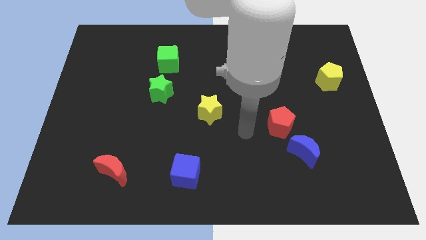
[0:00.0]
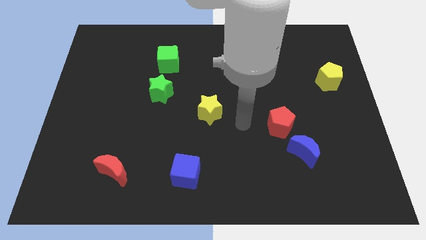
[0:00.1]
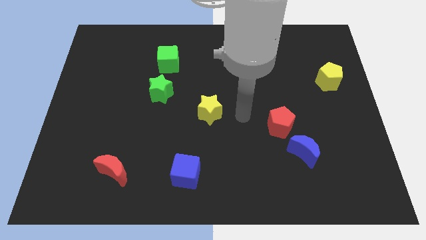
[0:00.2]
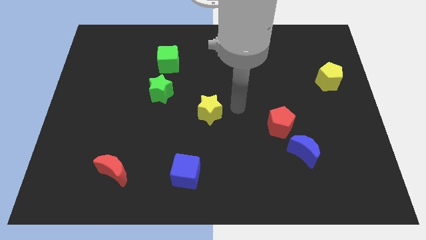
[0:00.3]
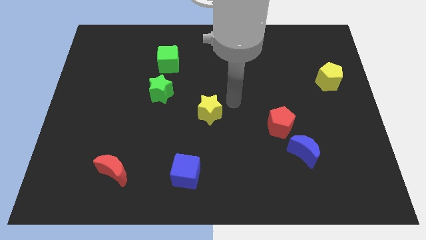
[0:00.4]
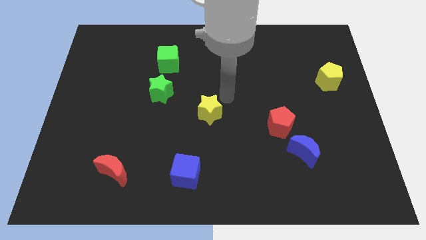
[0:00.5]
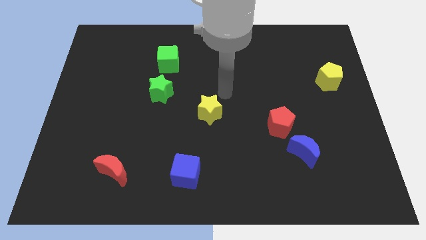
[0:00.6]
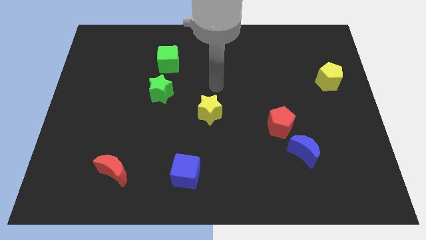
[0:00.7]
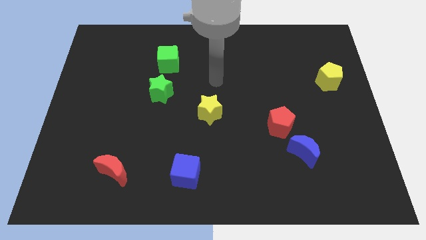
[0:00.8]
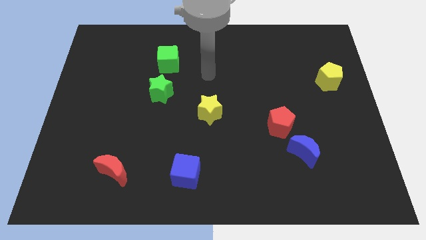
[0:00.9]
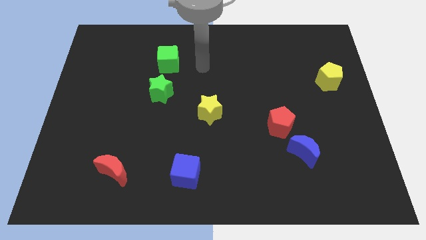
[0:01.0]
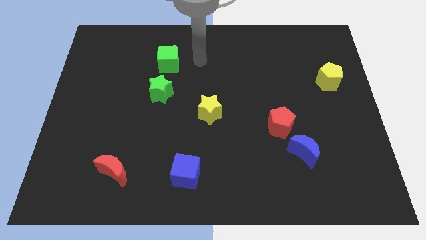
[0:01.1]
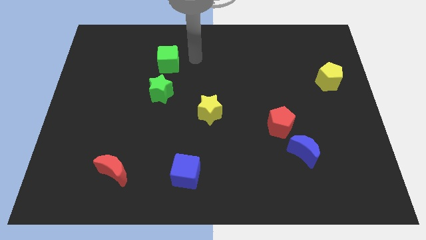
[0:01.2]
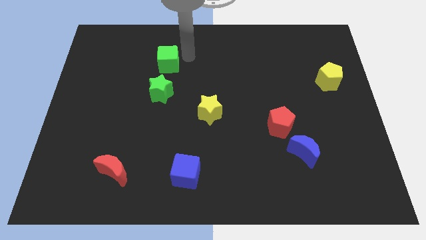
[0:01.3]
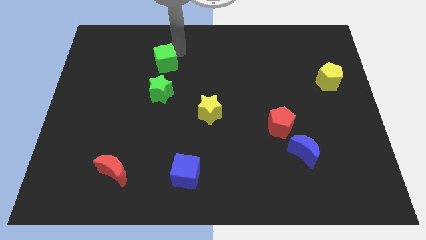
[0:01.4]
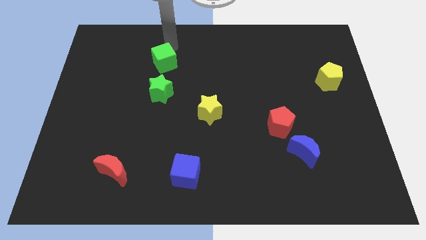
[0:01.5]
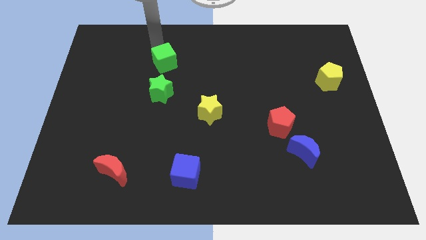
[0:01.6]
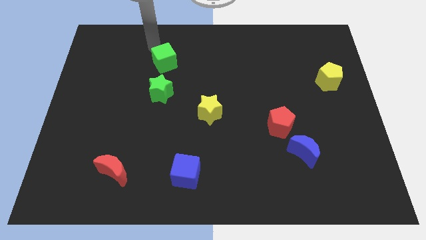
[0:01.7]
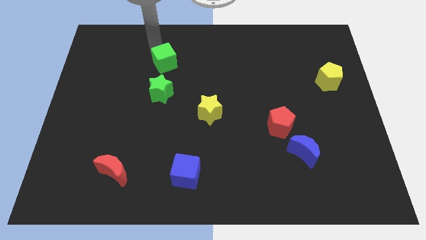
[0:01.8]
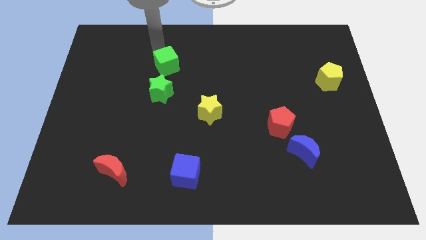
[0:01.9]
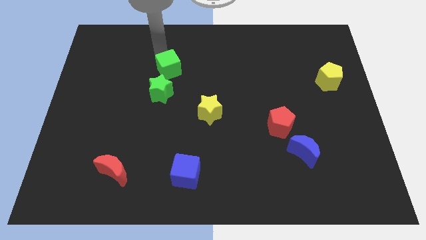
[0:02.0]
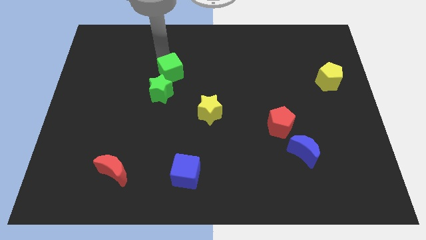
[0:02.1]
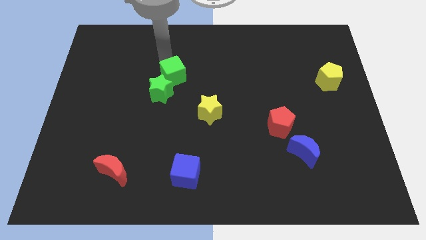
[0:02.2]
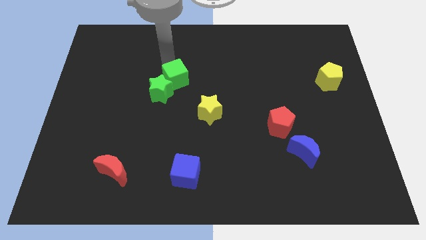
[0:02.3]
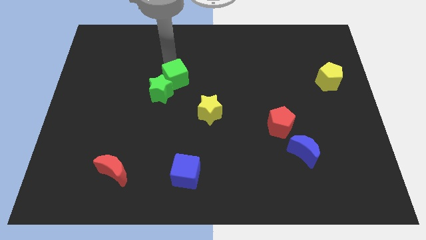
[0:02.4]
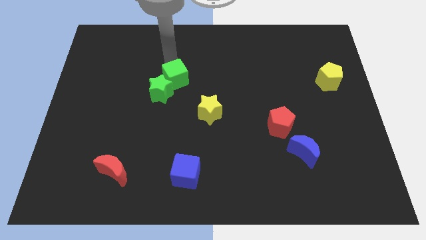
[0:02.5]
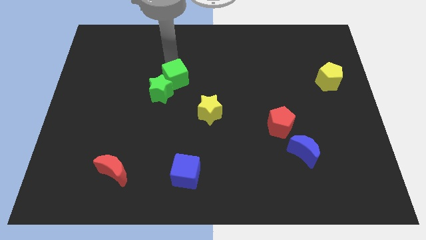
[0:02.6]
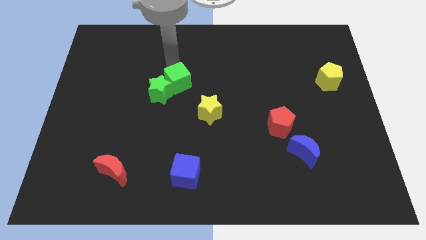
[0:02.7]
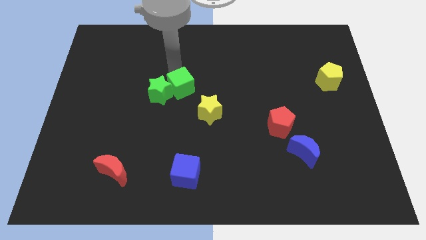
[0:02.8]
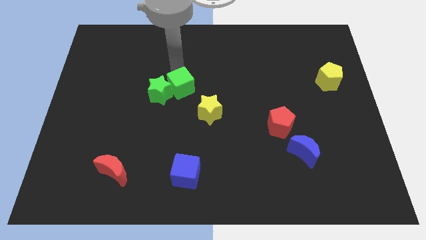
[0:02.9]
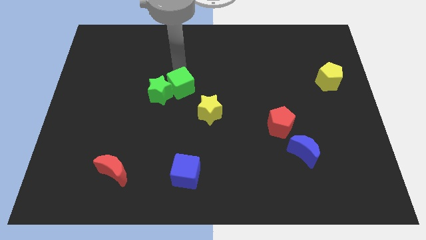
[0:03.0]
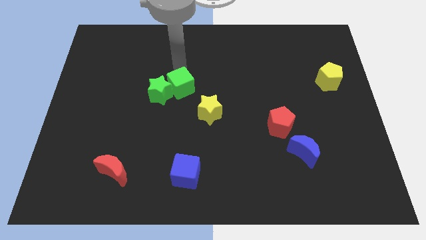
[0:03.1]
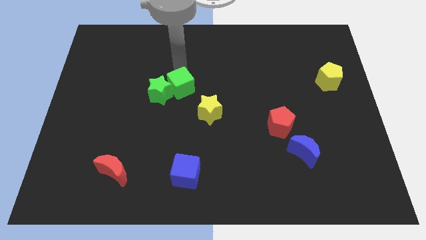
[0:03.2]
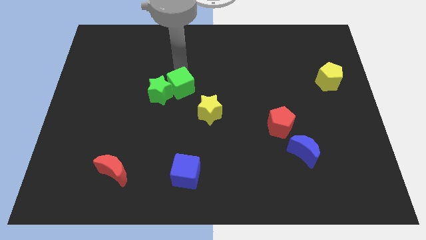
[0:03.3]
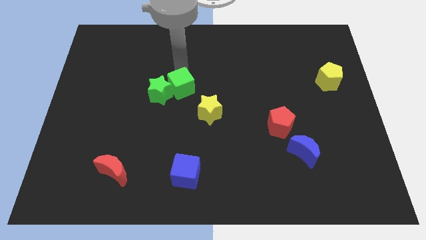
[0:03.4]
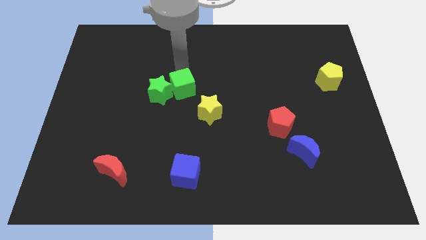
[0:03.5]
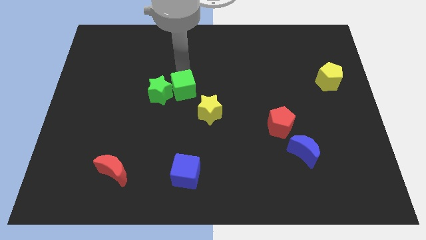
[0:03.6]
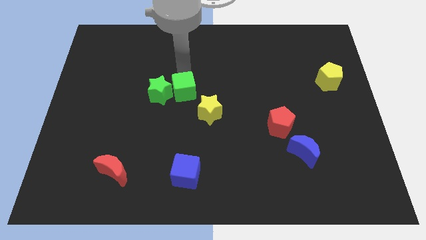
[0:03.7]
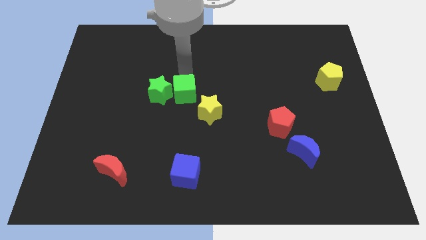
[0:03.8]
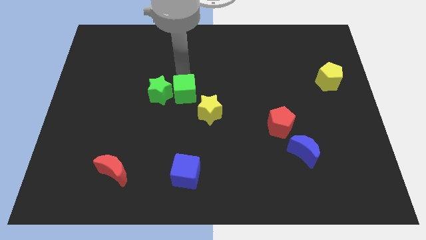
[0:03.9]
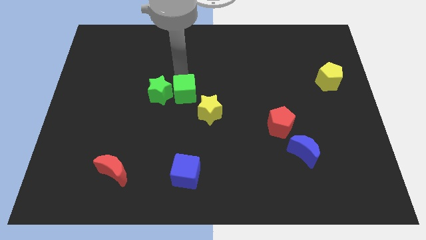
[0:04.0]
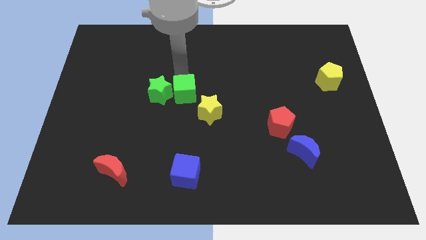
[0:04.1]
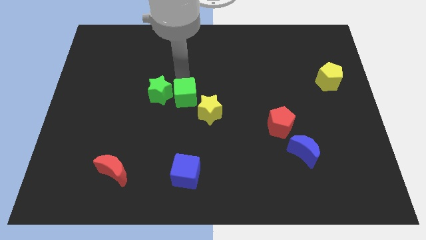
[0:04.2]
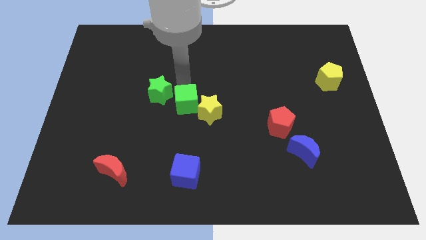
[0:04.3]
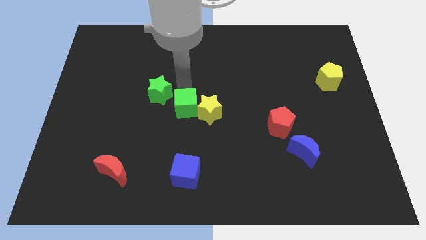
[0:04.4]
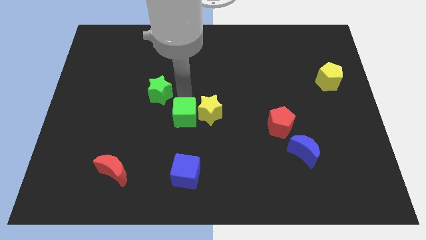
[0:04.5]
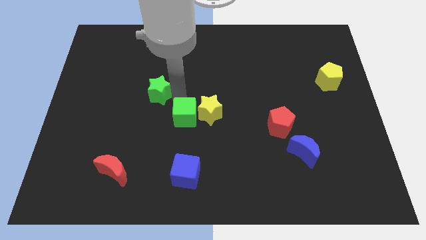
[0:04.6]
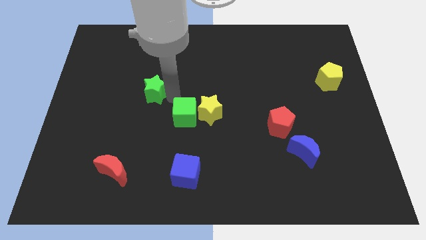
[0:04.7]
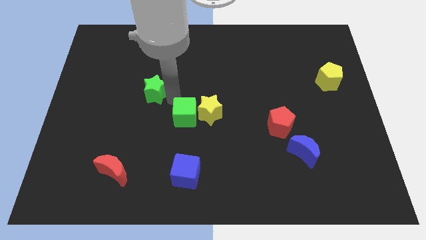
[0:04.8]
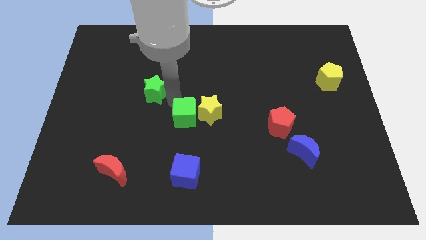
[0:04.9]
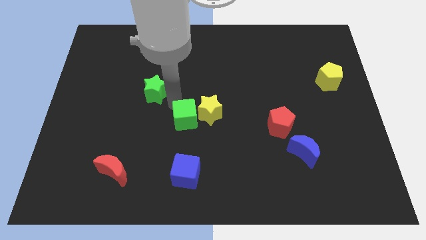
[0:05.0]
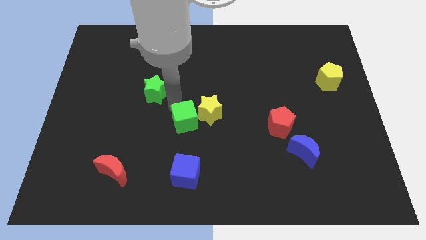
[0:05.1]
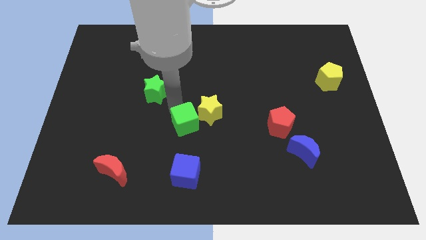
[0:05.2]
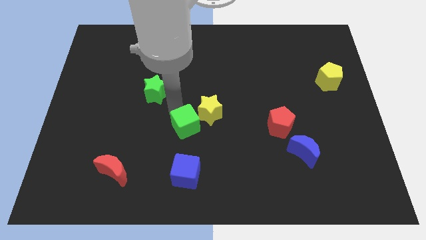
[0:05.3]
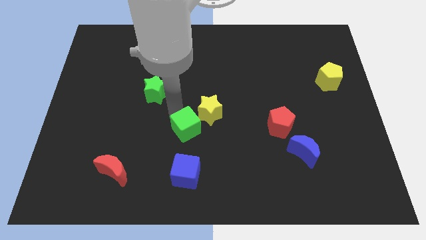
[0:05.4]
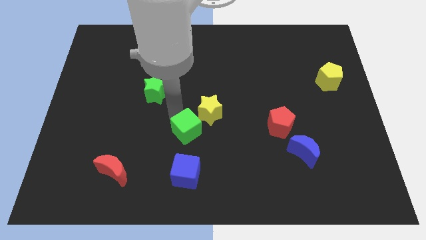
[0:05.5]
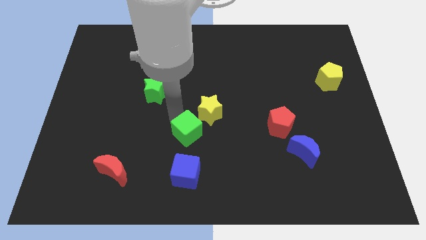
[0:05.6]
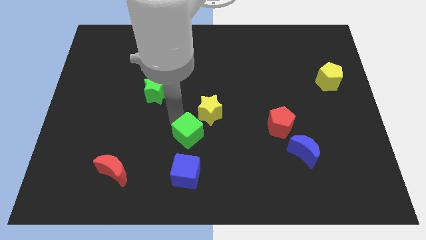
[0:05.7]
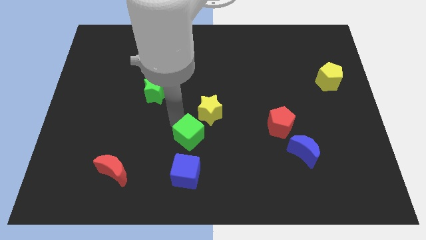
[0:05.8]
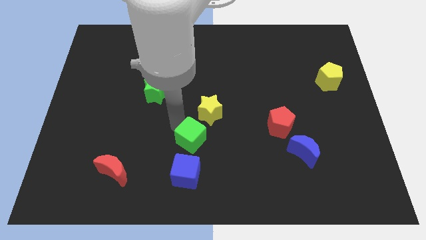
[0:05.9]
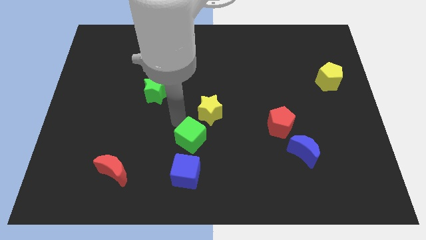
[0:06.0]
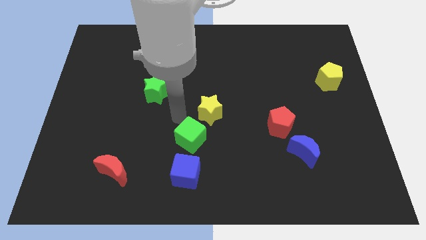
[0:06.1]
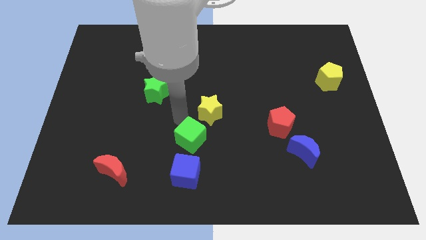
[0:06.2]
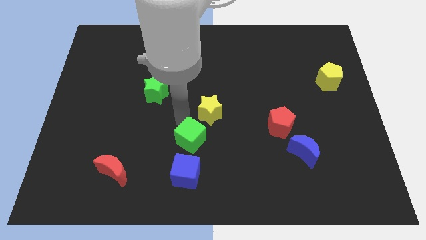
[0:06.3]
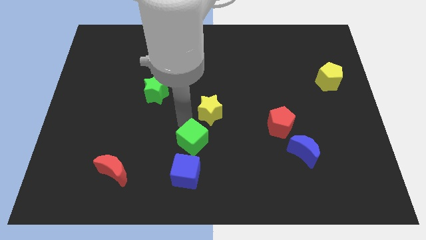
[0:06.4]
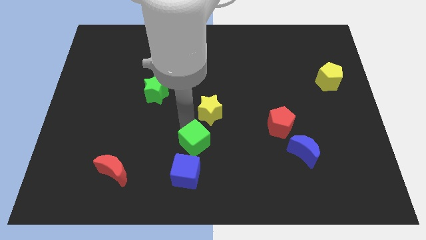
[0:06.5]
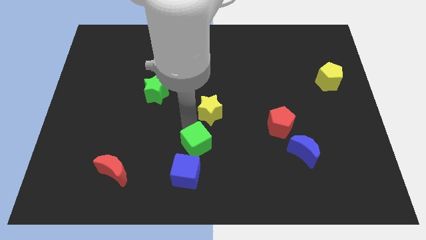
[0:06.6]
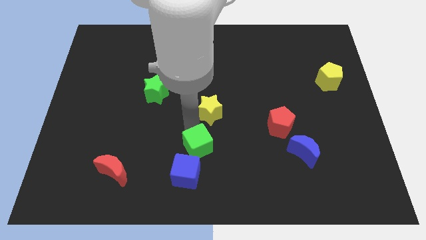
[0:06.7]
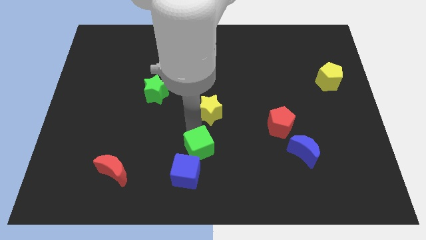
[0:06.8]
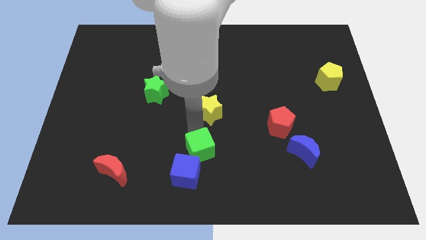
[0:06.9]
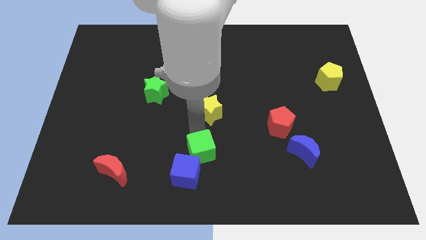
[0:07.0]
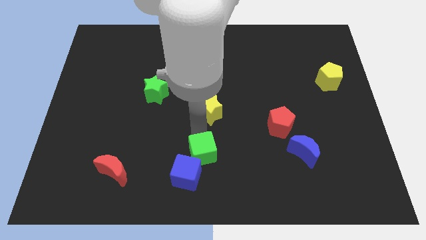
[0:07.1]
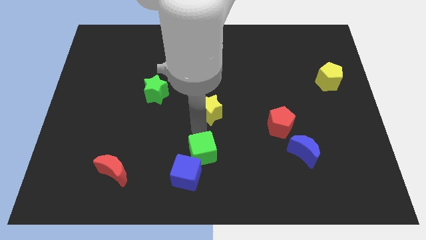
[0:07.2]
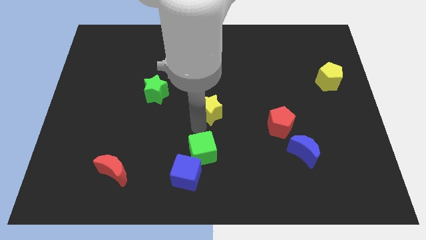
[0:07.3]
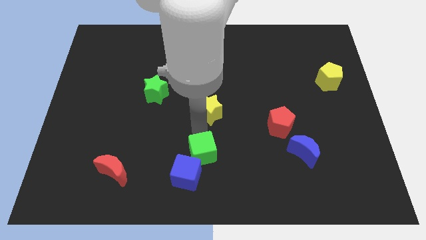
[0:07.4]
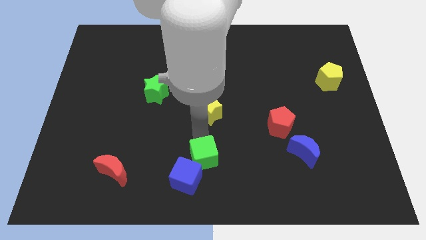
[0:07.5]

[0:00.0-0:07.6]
put the green cube to the bottom
